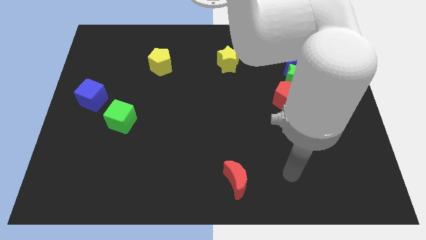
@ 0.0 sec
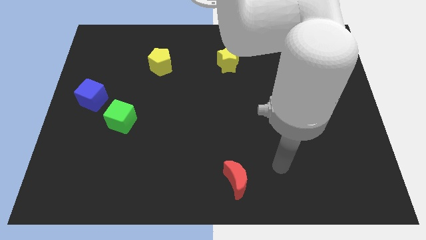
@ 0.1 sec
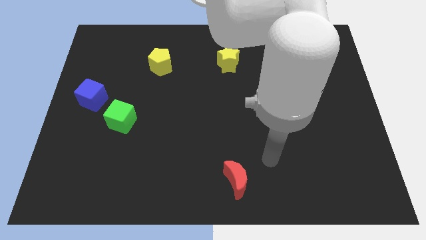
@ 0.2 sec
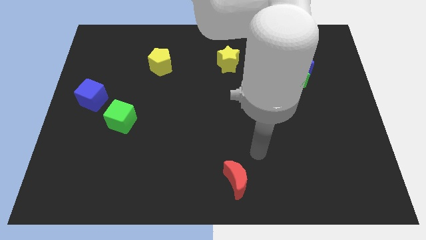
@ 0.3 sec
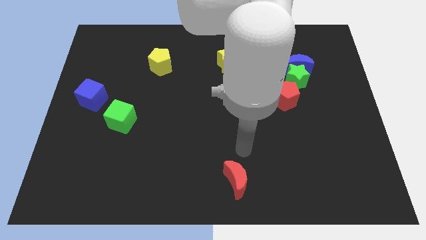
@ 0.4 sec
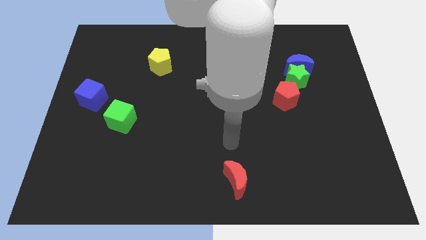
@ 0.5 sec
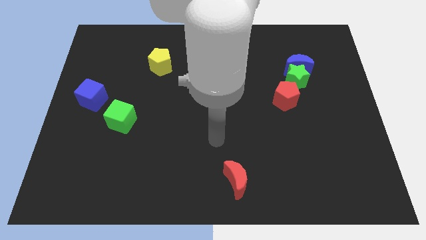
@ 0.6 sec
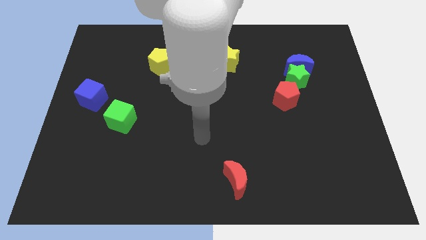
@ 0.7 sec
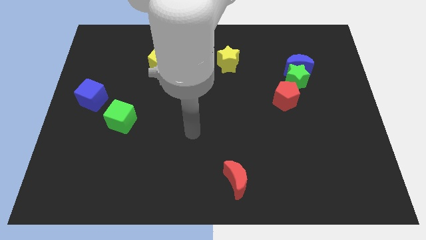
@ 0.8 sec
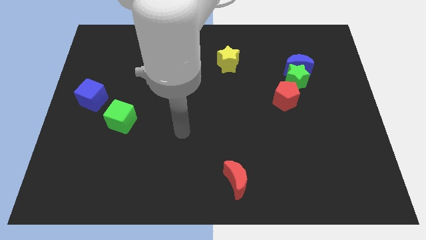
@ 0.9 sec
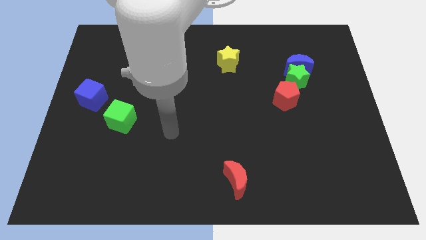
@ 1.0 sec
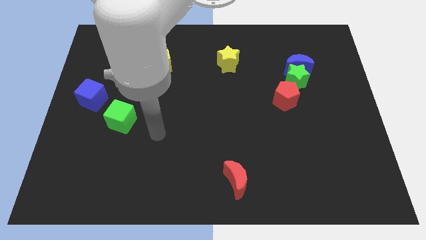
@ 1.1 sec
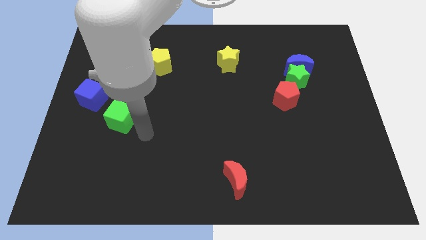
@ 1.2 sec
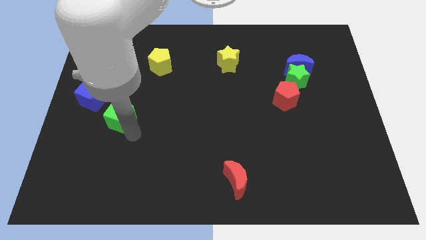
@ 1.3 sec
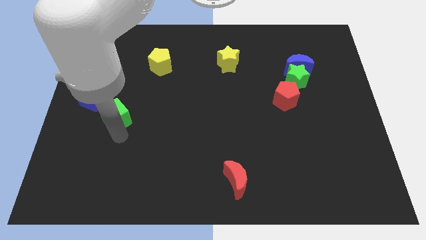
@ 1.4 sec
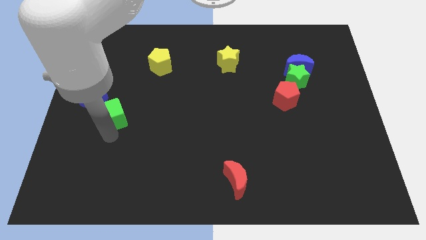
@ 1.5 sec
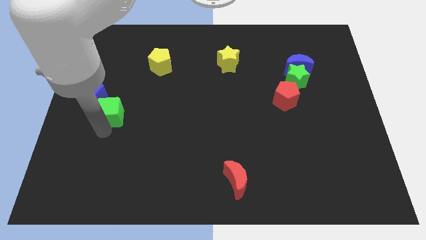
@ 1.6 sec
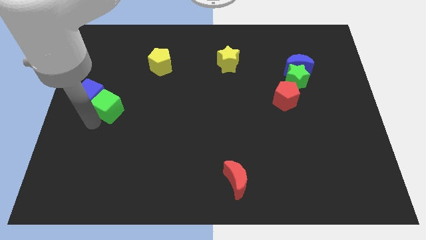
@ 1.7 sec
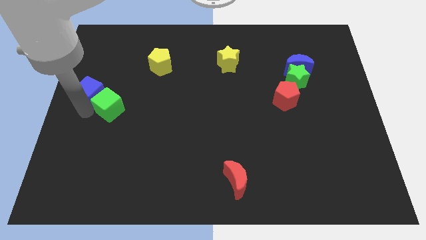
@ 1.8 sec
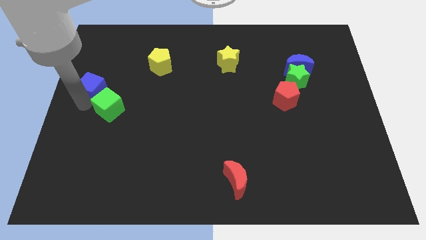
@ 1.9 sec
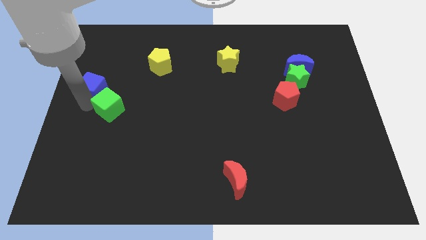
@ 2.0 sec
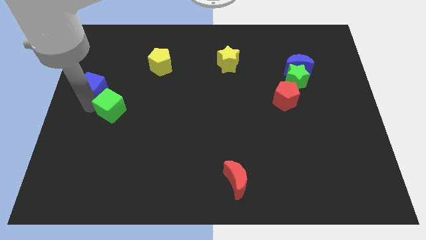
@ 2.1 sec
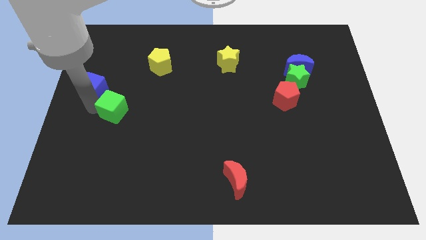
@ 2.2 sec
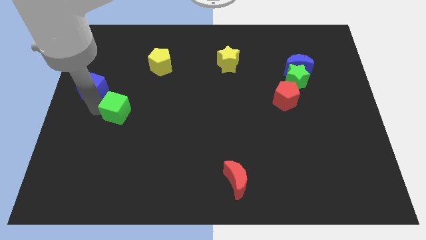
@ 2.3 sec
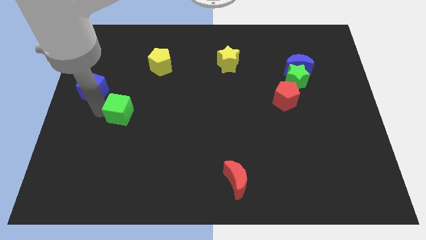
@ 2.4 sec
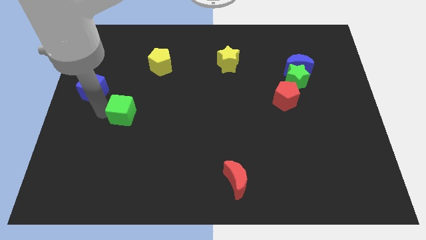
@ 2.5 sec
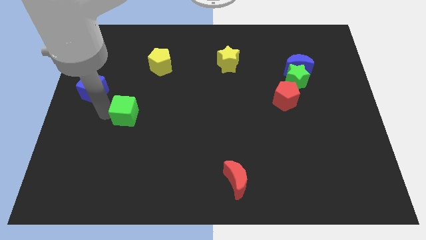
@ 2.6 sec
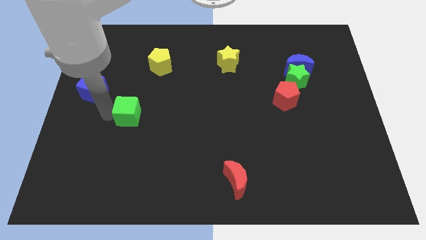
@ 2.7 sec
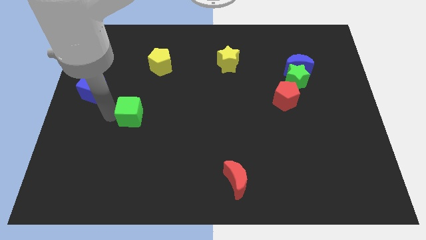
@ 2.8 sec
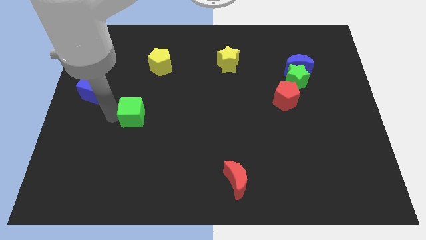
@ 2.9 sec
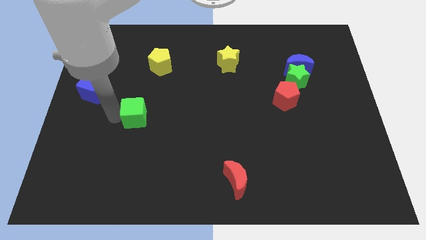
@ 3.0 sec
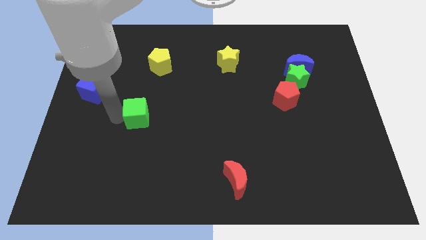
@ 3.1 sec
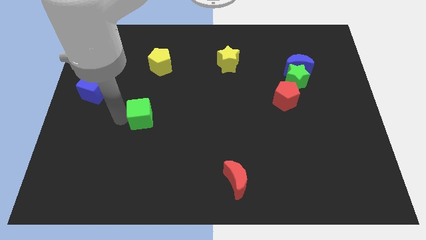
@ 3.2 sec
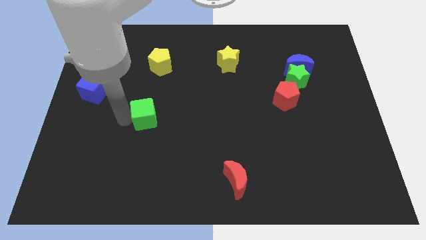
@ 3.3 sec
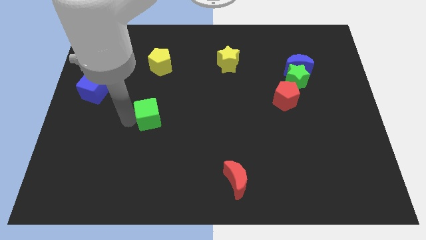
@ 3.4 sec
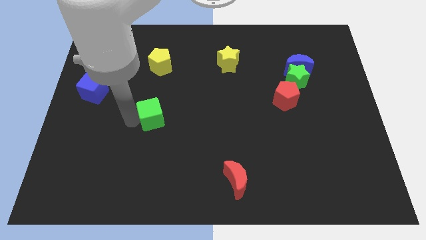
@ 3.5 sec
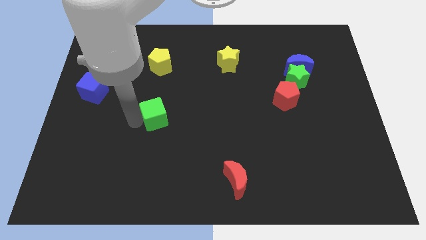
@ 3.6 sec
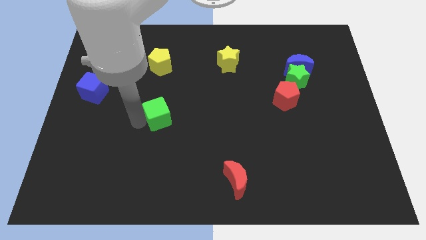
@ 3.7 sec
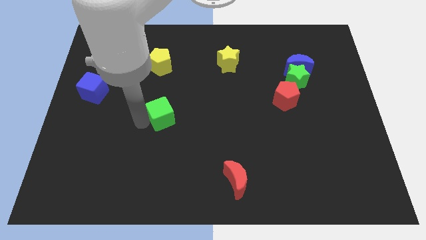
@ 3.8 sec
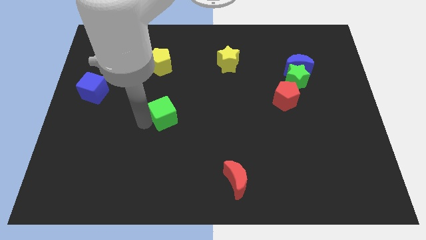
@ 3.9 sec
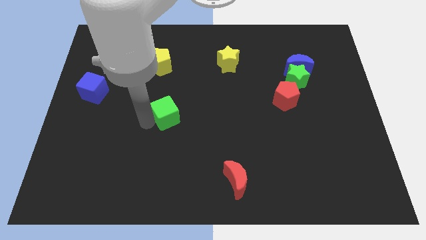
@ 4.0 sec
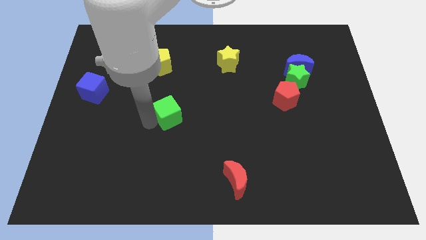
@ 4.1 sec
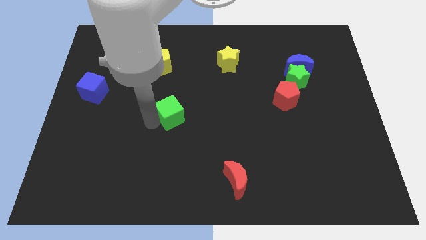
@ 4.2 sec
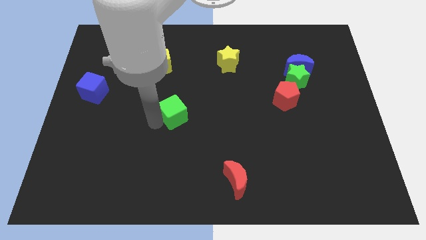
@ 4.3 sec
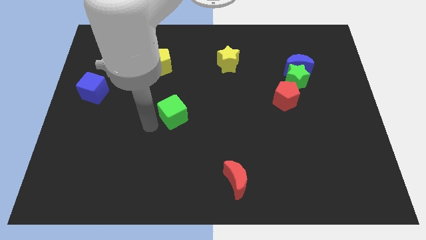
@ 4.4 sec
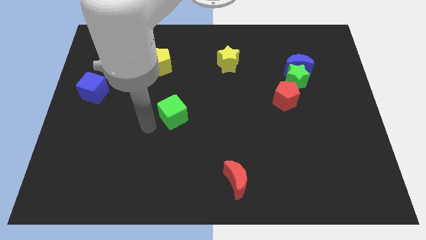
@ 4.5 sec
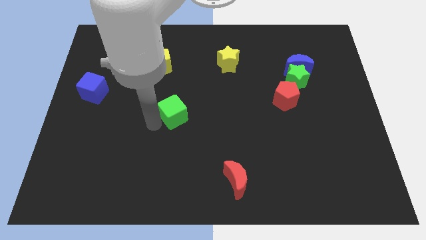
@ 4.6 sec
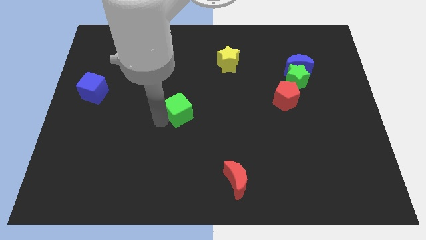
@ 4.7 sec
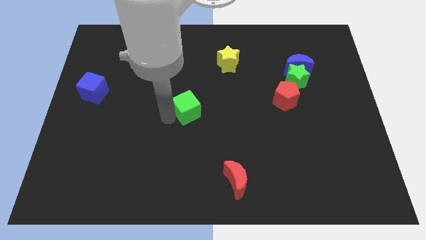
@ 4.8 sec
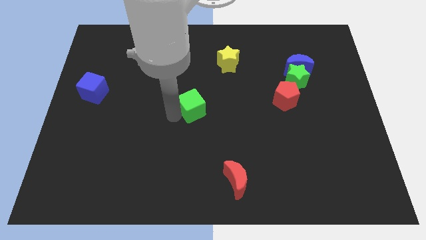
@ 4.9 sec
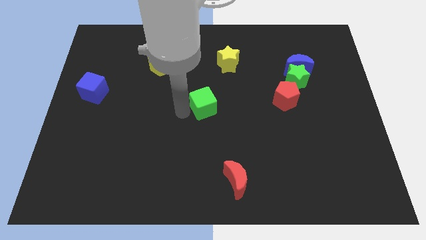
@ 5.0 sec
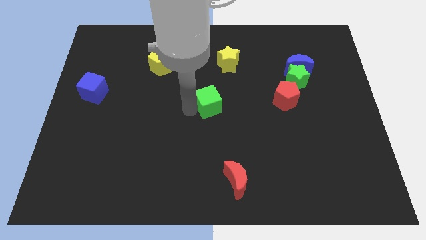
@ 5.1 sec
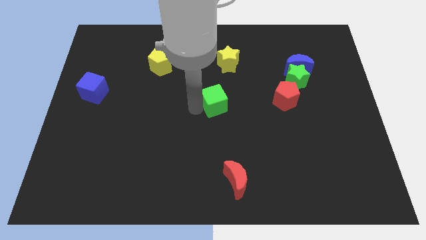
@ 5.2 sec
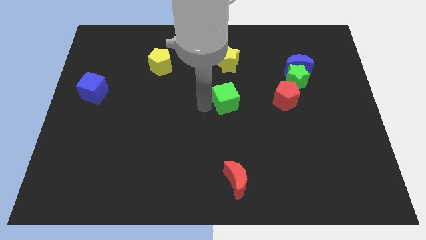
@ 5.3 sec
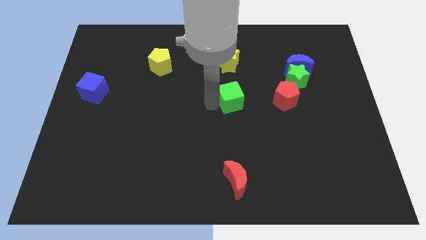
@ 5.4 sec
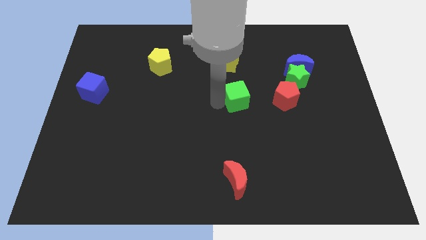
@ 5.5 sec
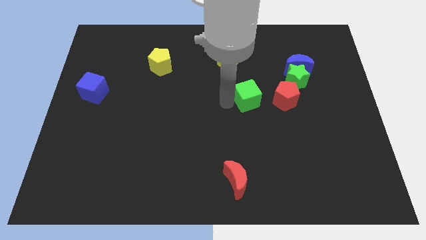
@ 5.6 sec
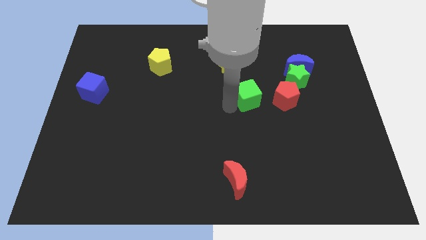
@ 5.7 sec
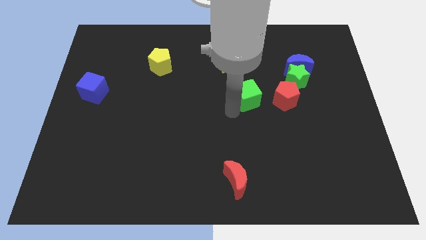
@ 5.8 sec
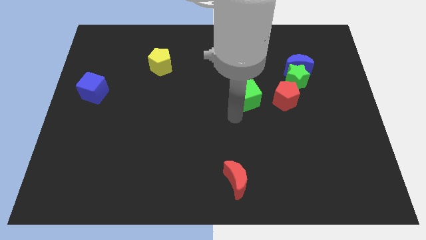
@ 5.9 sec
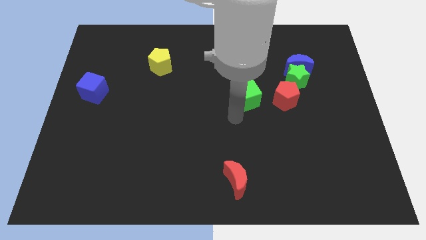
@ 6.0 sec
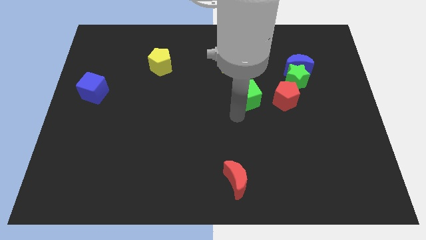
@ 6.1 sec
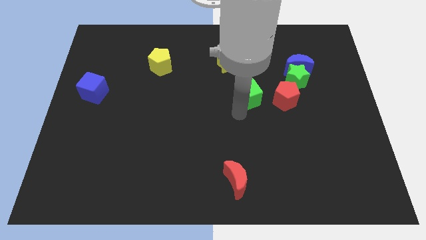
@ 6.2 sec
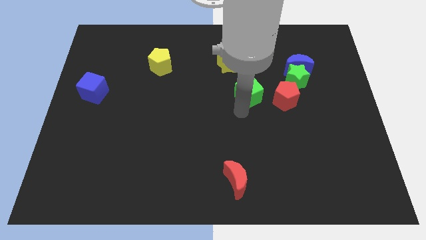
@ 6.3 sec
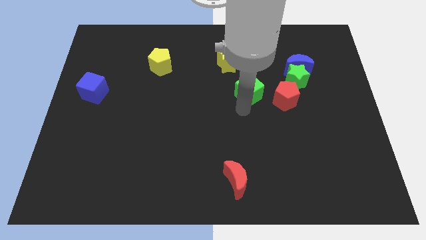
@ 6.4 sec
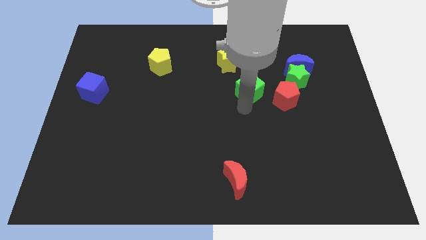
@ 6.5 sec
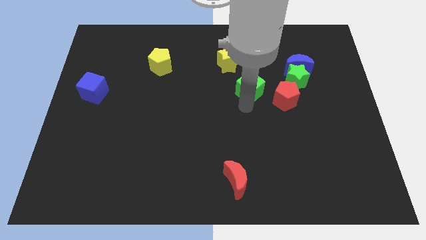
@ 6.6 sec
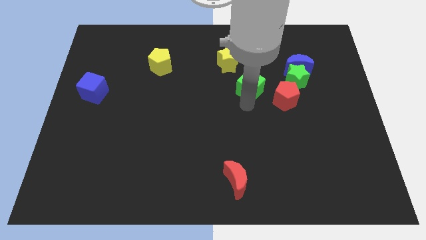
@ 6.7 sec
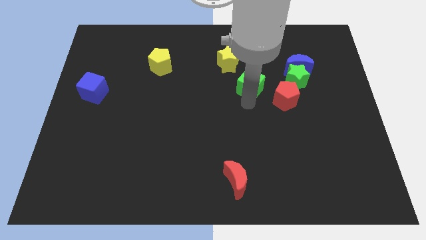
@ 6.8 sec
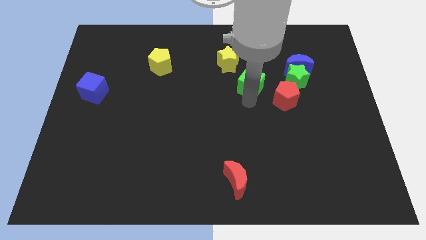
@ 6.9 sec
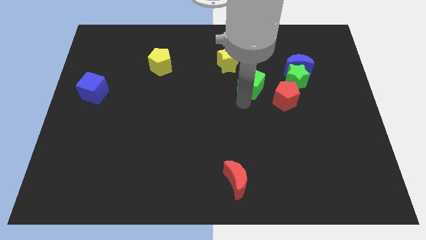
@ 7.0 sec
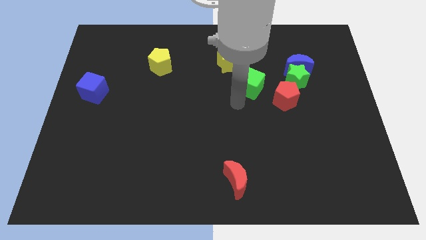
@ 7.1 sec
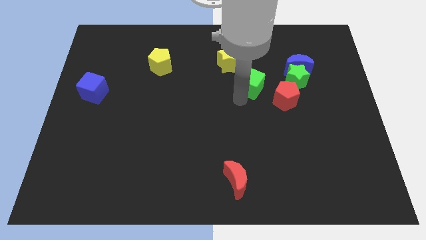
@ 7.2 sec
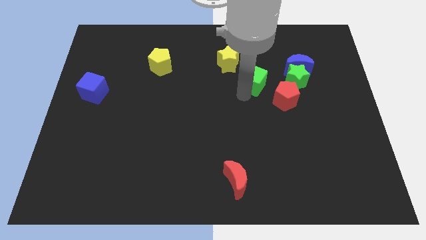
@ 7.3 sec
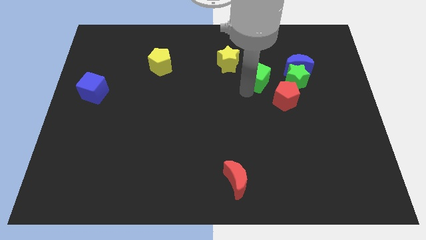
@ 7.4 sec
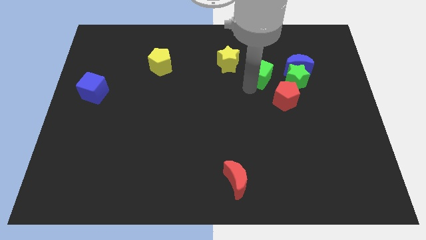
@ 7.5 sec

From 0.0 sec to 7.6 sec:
slide the green cube right of the yellow star

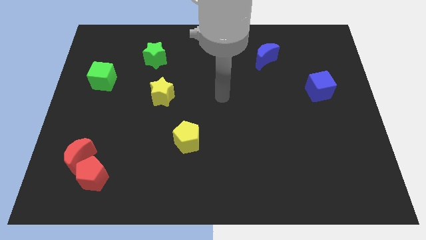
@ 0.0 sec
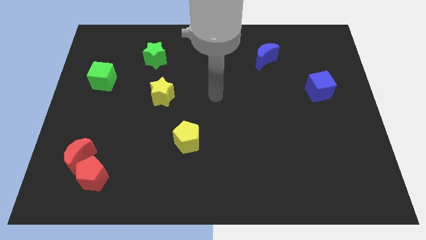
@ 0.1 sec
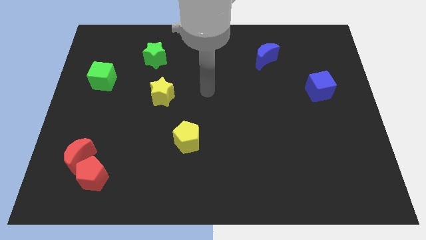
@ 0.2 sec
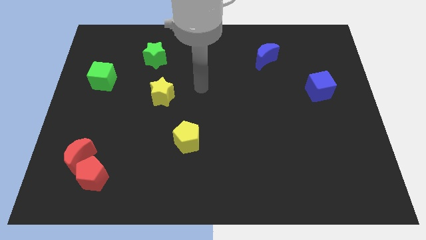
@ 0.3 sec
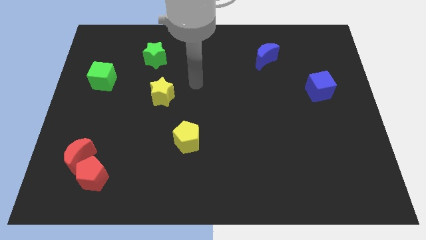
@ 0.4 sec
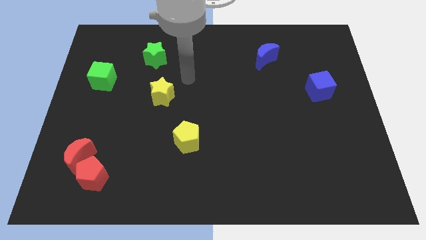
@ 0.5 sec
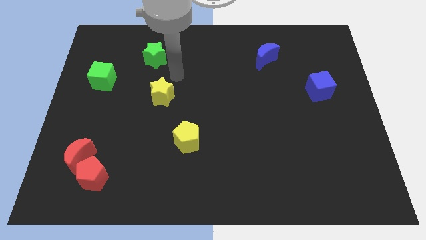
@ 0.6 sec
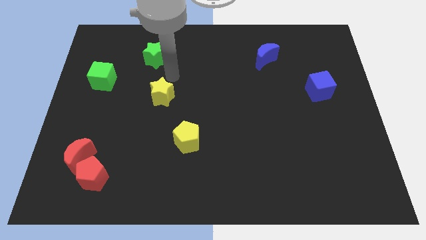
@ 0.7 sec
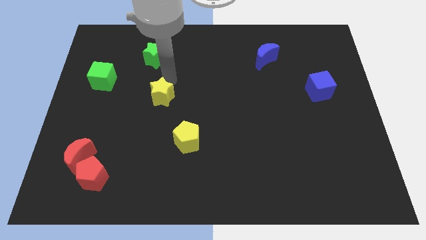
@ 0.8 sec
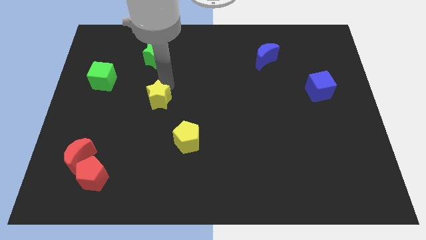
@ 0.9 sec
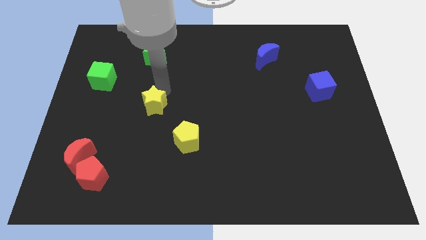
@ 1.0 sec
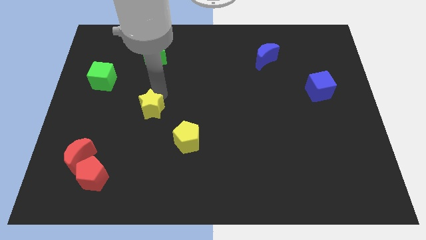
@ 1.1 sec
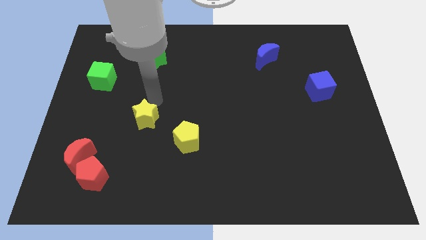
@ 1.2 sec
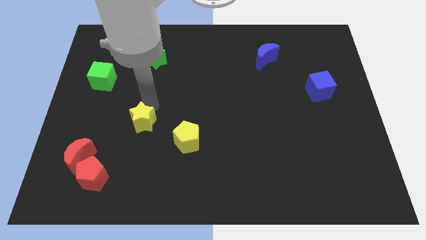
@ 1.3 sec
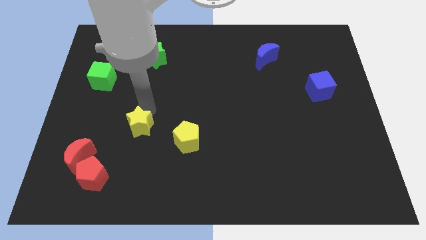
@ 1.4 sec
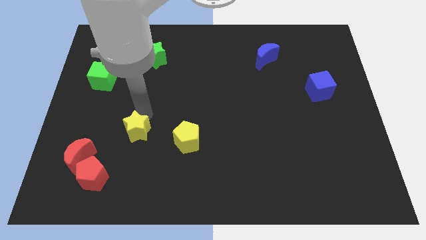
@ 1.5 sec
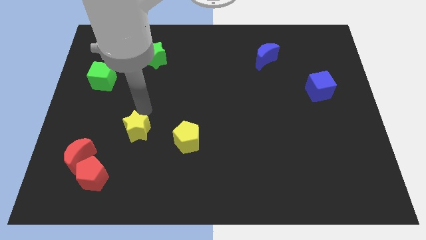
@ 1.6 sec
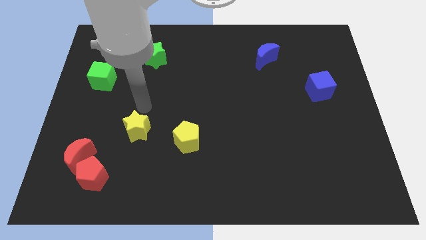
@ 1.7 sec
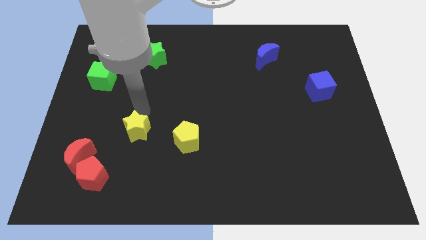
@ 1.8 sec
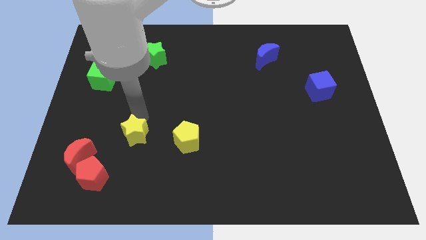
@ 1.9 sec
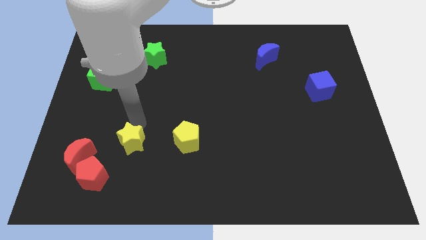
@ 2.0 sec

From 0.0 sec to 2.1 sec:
slide the yellow star to the right side of the red moon
